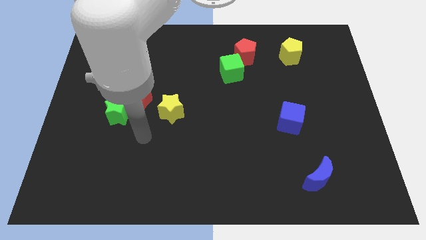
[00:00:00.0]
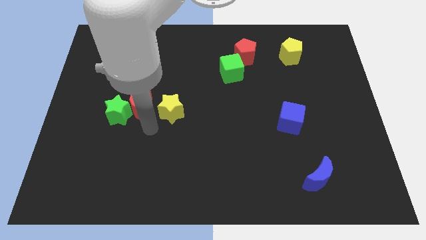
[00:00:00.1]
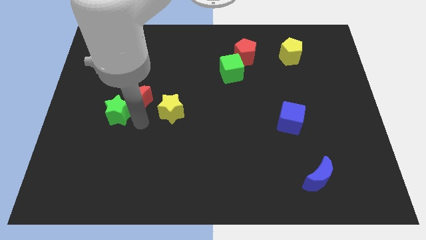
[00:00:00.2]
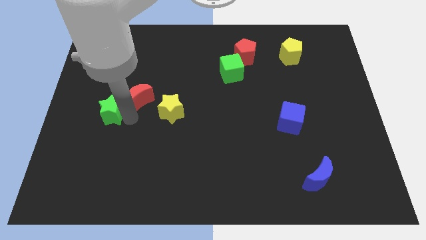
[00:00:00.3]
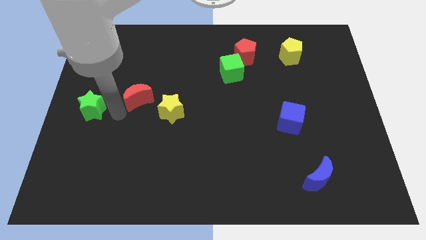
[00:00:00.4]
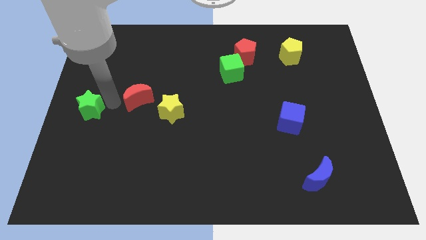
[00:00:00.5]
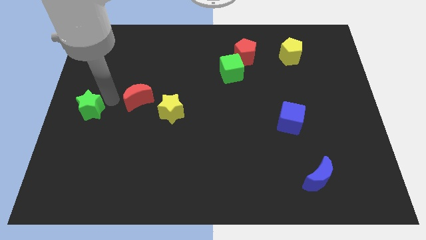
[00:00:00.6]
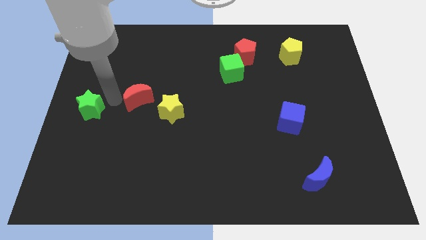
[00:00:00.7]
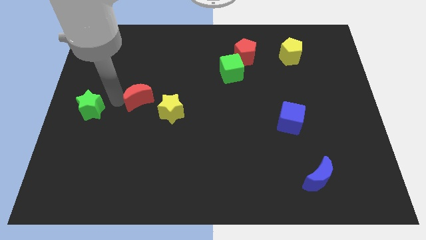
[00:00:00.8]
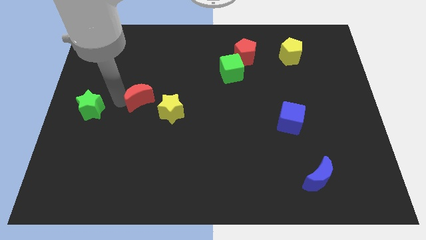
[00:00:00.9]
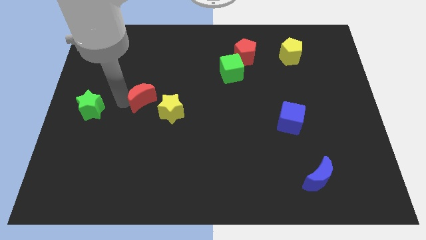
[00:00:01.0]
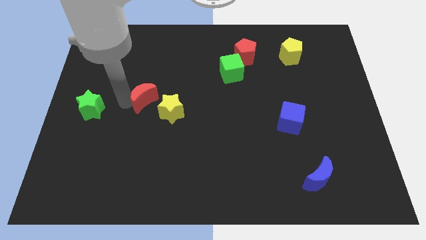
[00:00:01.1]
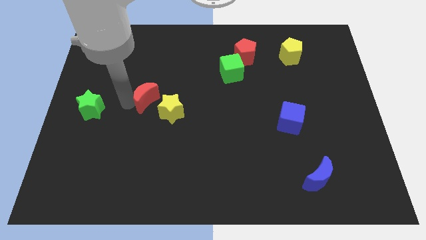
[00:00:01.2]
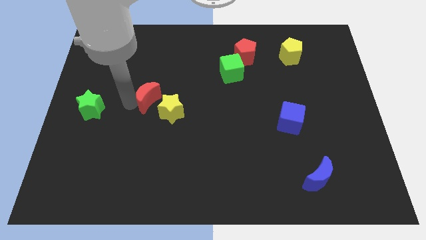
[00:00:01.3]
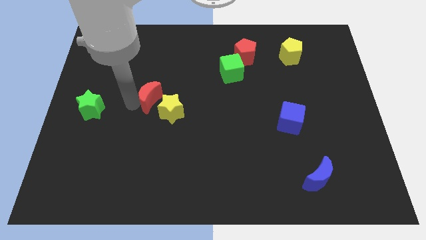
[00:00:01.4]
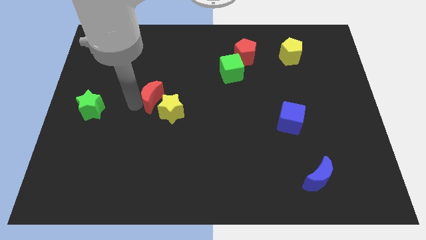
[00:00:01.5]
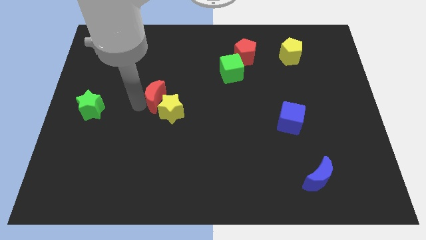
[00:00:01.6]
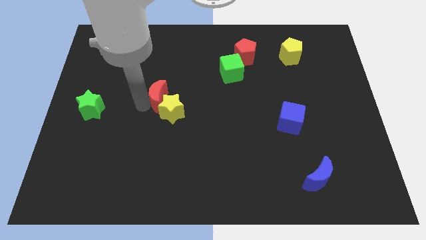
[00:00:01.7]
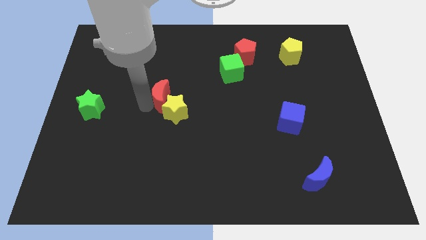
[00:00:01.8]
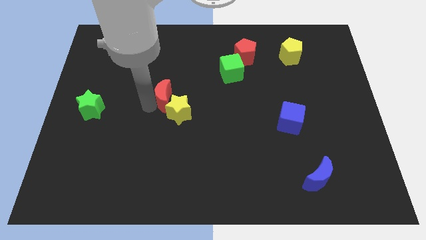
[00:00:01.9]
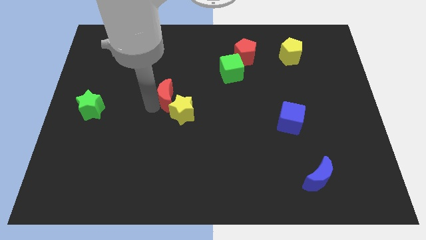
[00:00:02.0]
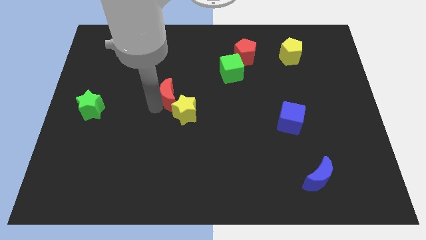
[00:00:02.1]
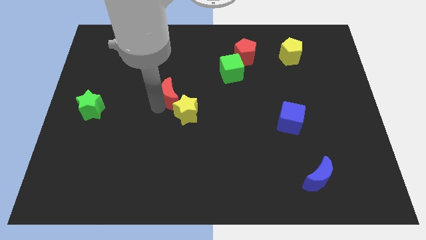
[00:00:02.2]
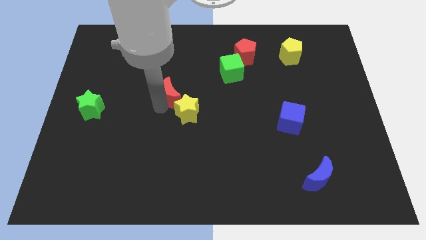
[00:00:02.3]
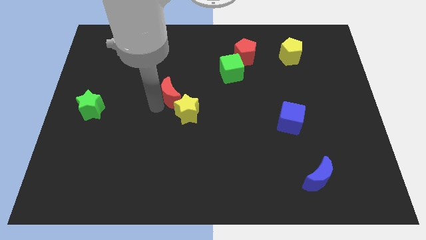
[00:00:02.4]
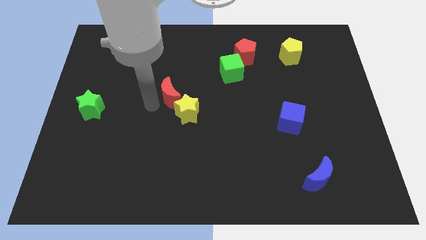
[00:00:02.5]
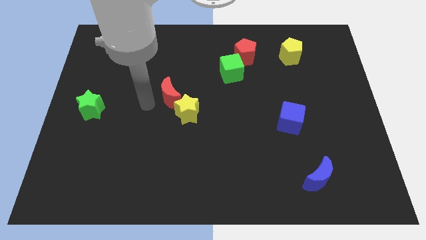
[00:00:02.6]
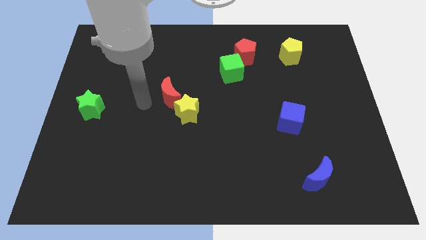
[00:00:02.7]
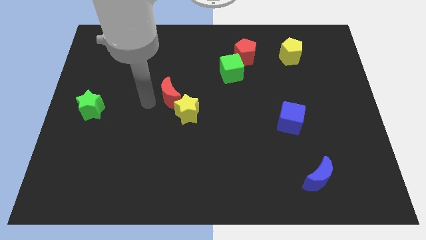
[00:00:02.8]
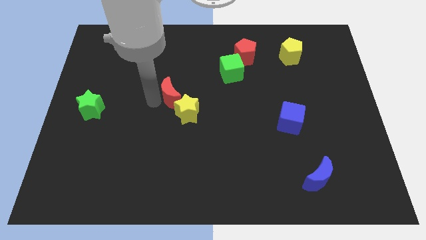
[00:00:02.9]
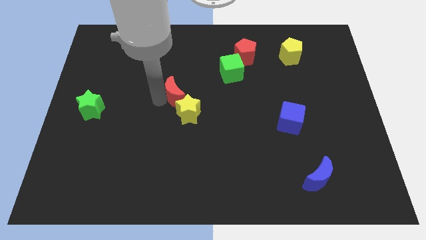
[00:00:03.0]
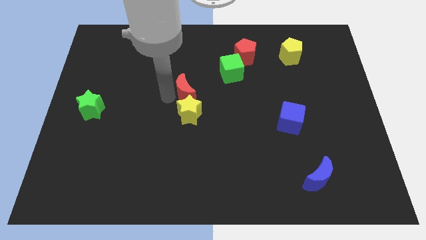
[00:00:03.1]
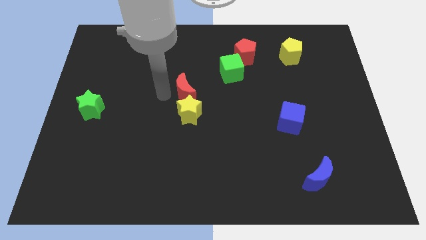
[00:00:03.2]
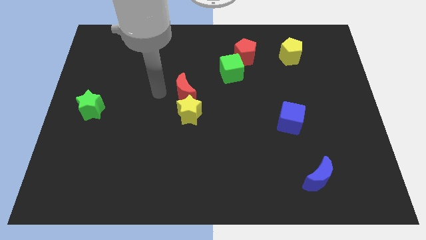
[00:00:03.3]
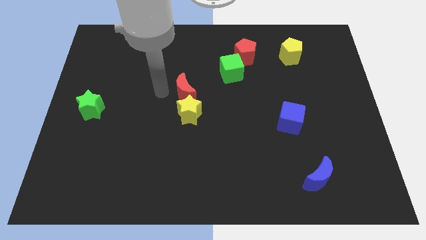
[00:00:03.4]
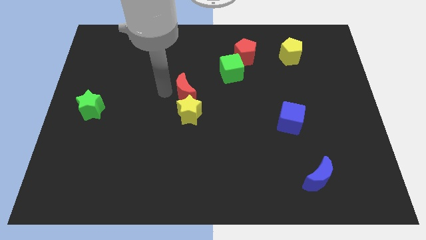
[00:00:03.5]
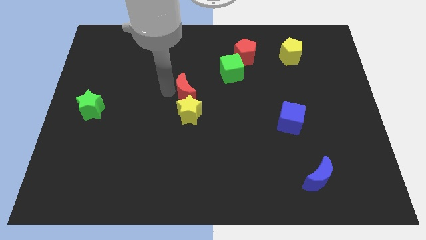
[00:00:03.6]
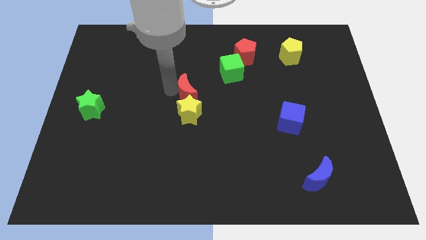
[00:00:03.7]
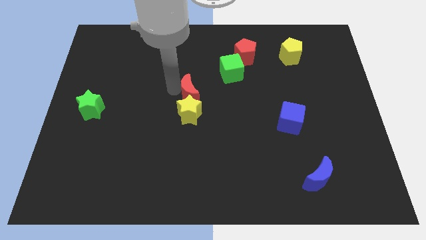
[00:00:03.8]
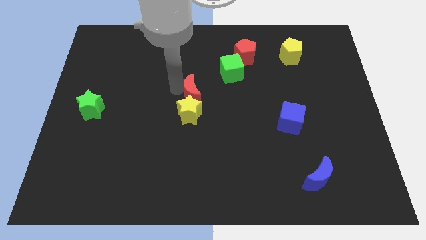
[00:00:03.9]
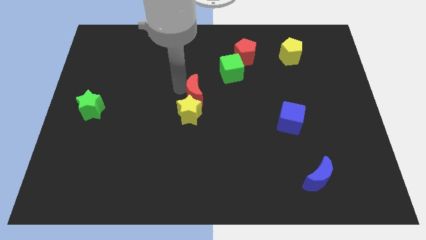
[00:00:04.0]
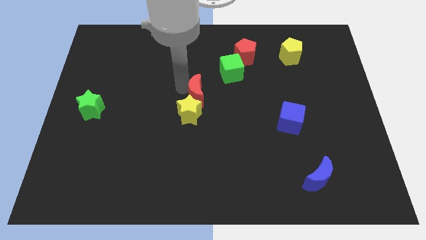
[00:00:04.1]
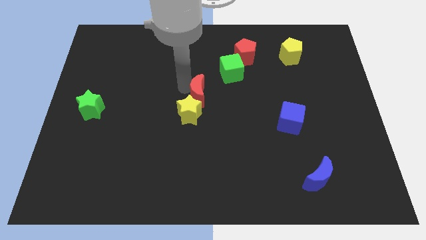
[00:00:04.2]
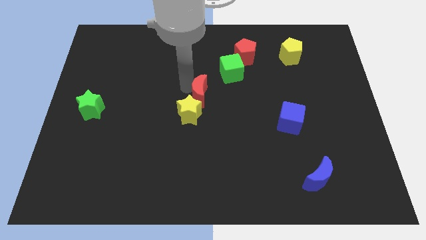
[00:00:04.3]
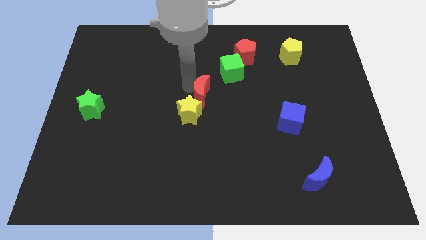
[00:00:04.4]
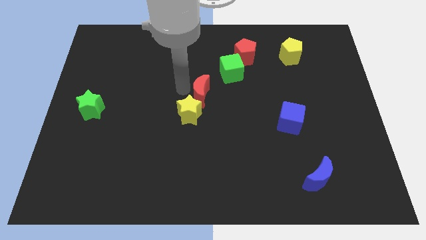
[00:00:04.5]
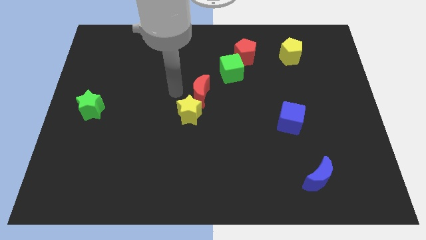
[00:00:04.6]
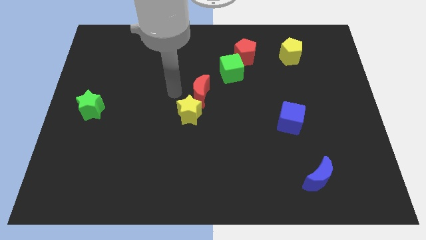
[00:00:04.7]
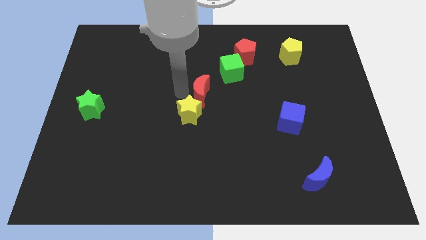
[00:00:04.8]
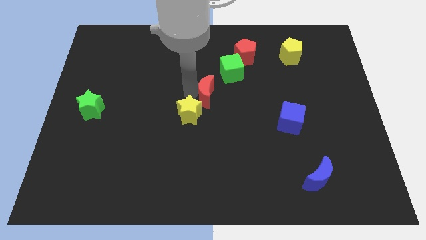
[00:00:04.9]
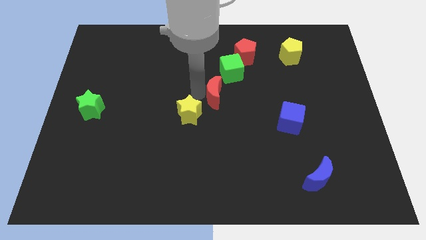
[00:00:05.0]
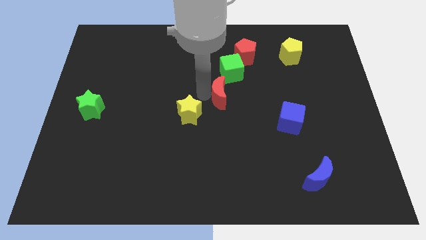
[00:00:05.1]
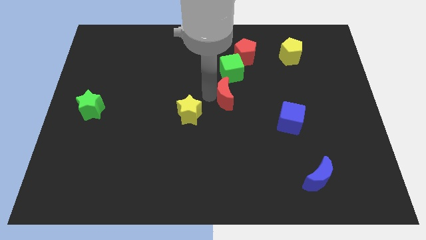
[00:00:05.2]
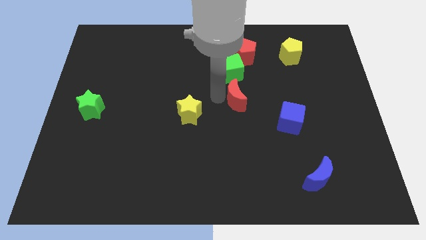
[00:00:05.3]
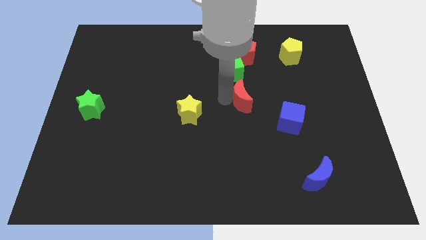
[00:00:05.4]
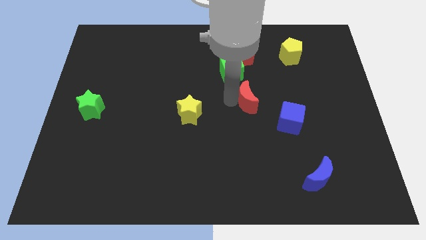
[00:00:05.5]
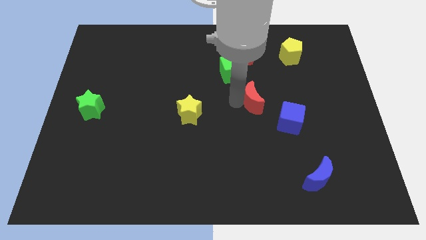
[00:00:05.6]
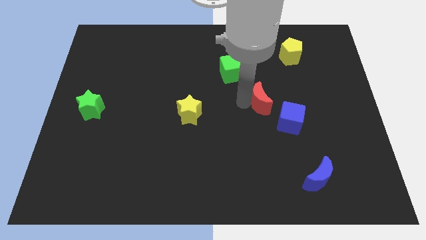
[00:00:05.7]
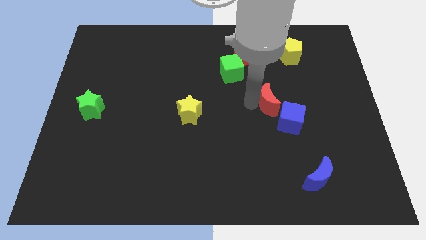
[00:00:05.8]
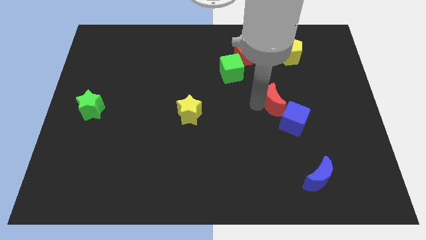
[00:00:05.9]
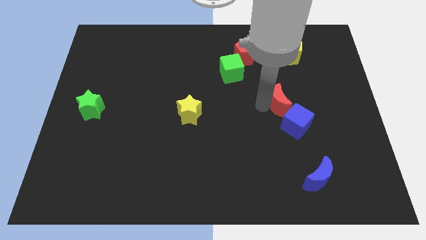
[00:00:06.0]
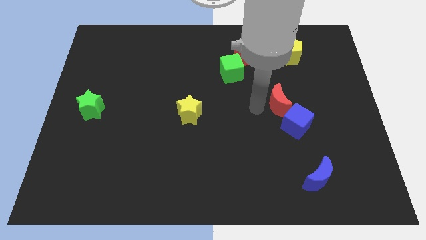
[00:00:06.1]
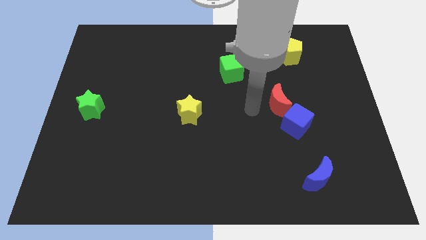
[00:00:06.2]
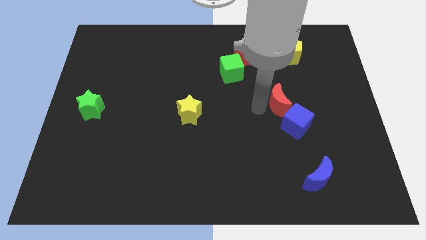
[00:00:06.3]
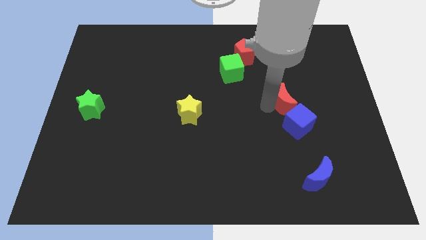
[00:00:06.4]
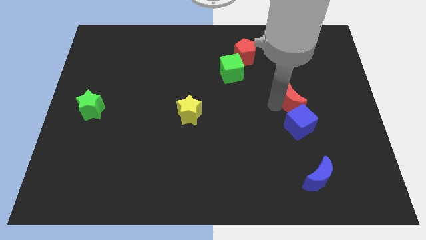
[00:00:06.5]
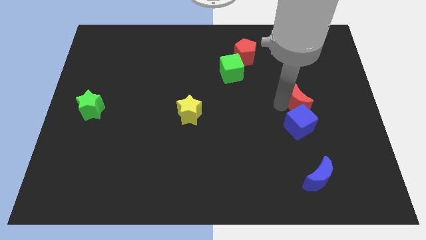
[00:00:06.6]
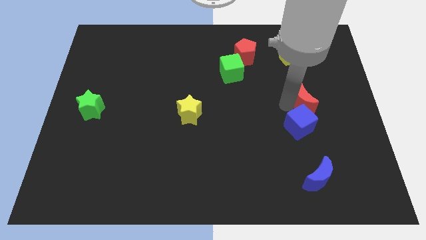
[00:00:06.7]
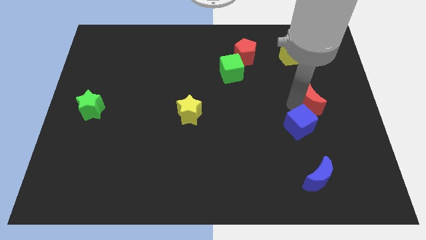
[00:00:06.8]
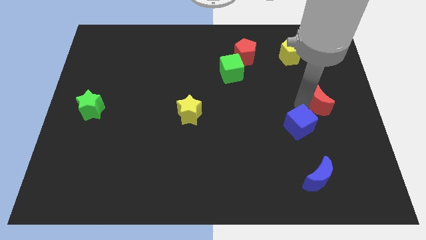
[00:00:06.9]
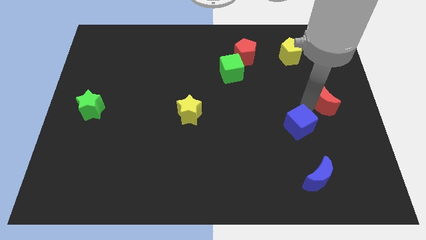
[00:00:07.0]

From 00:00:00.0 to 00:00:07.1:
move the red moon to the right side
